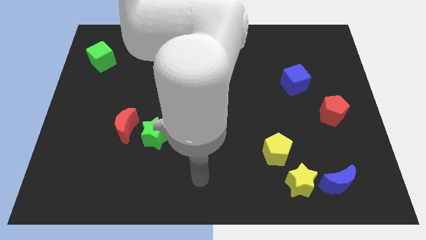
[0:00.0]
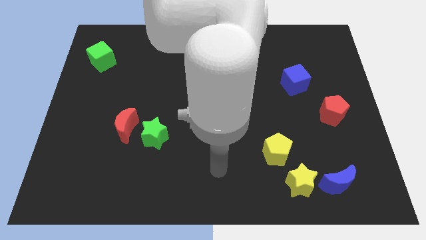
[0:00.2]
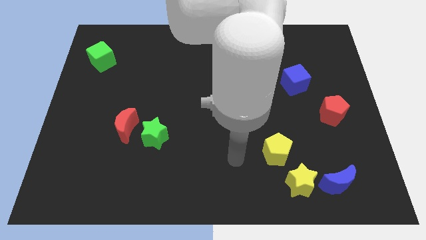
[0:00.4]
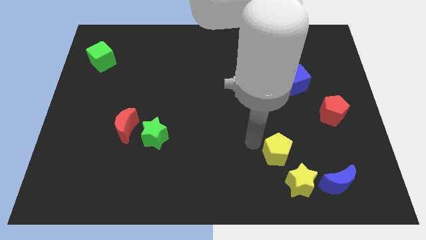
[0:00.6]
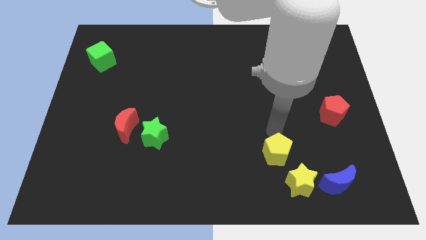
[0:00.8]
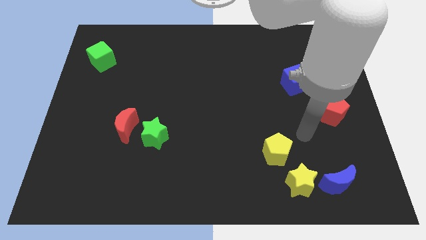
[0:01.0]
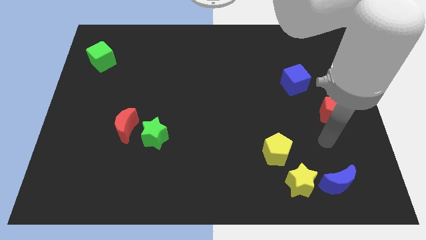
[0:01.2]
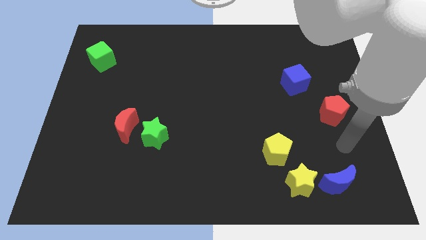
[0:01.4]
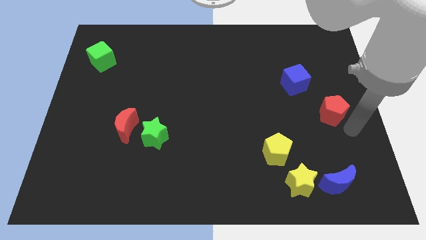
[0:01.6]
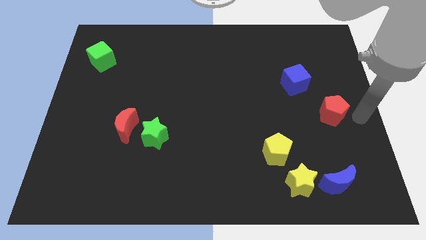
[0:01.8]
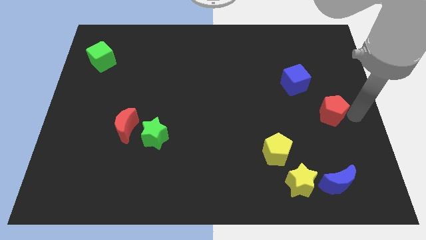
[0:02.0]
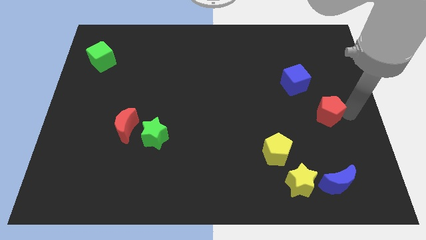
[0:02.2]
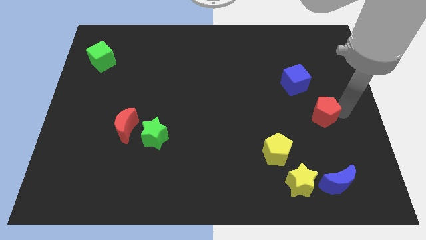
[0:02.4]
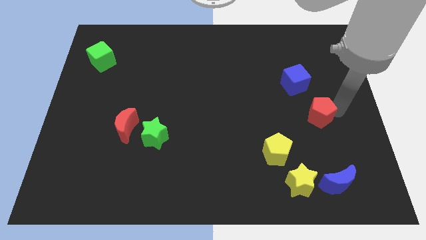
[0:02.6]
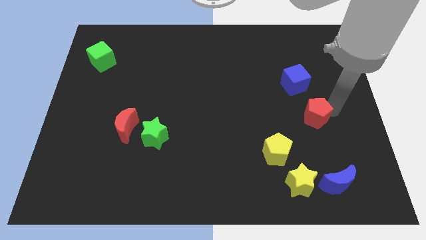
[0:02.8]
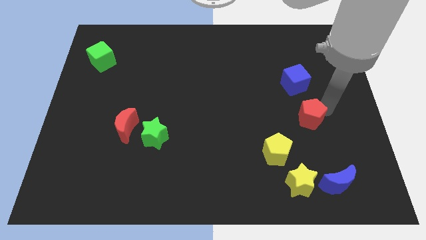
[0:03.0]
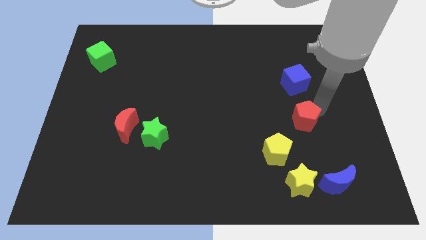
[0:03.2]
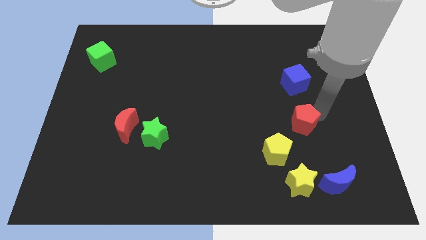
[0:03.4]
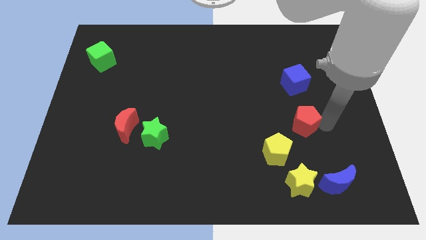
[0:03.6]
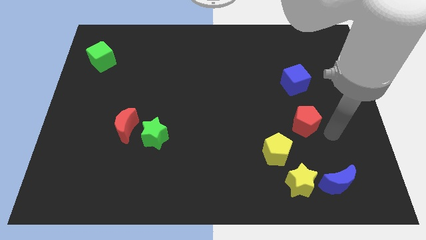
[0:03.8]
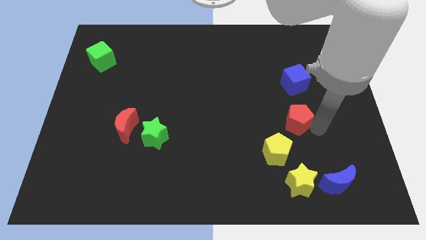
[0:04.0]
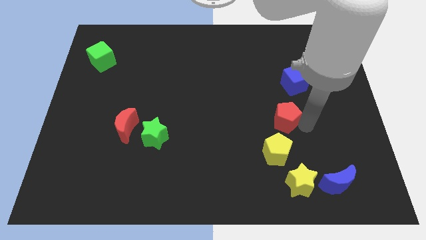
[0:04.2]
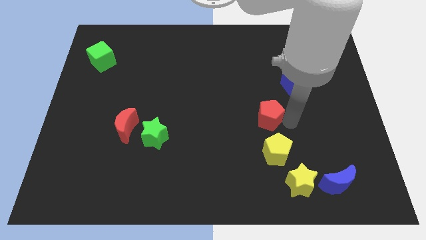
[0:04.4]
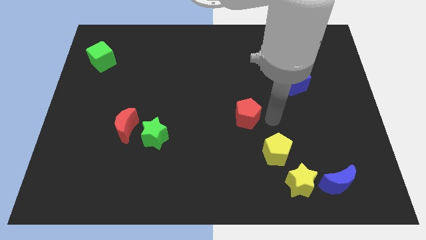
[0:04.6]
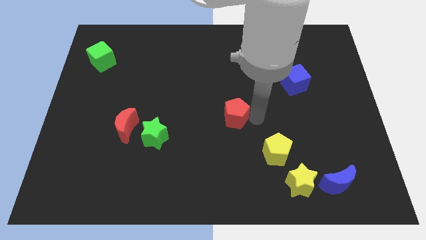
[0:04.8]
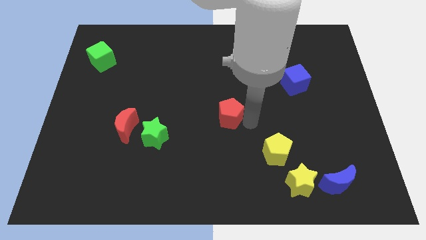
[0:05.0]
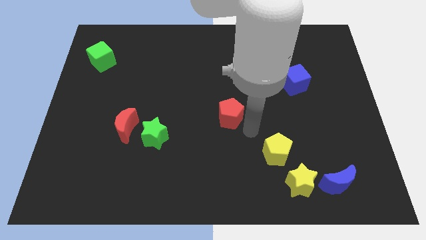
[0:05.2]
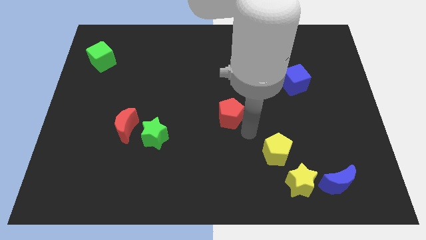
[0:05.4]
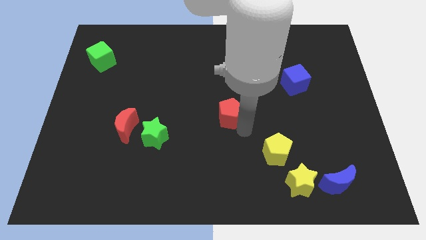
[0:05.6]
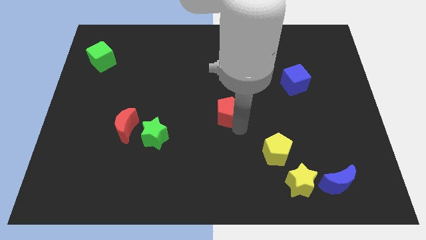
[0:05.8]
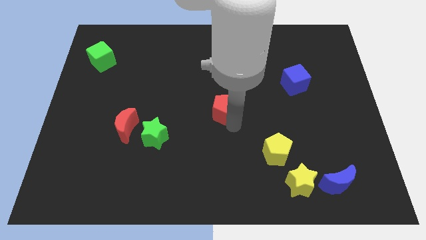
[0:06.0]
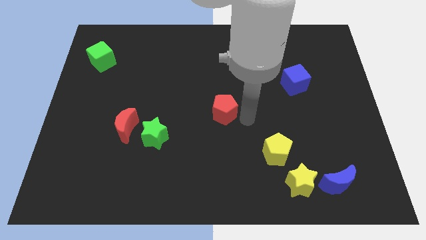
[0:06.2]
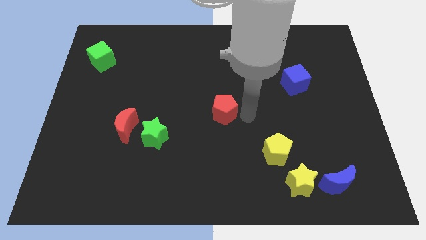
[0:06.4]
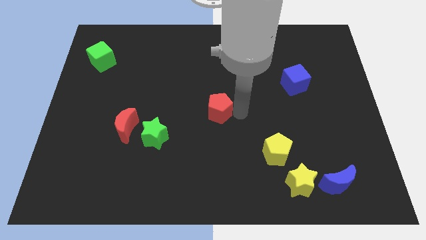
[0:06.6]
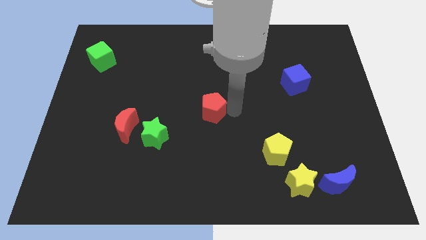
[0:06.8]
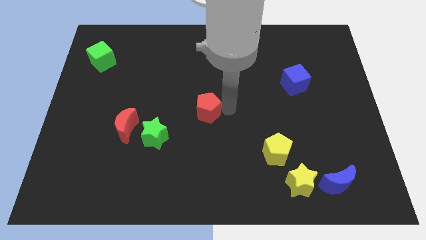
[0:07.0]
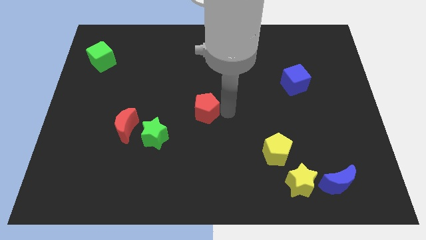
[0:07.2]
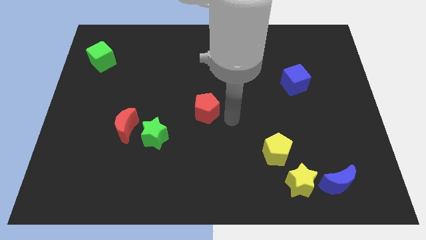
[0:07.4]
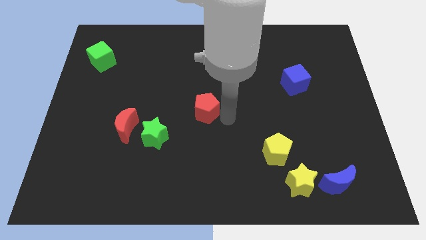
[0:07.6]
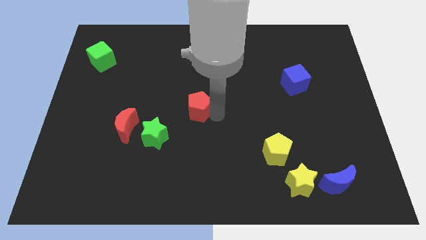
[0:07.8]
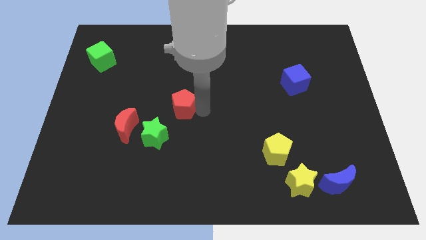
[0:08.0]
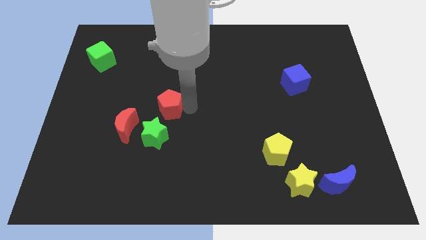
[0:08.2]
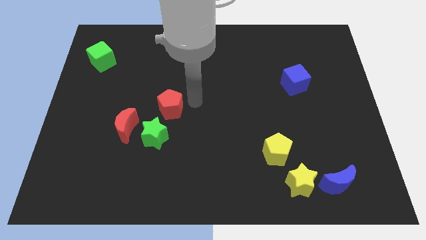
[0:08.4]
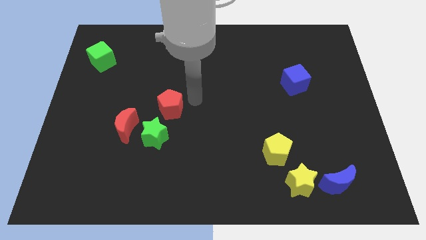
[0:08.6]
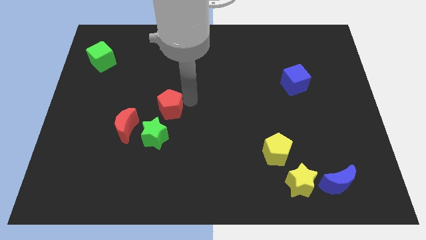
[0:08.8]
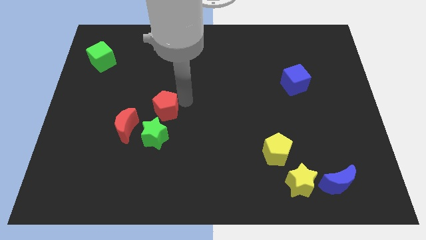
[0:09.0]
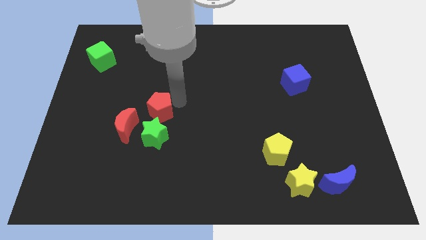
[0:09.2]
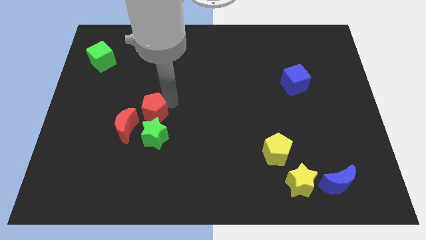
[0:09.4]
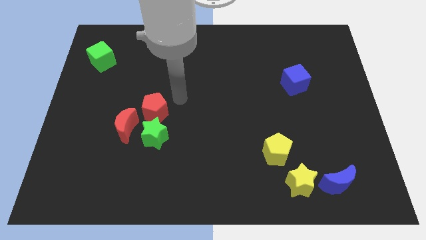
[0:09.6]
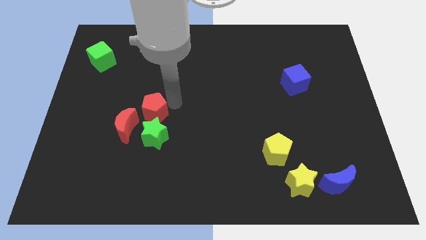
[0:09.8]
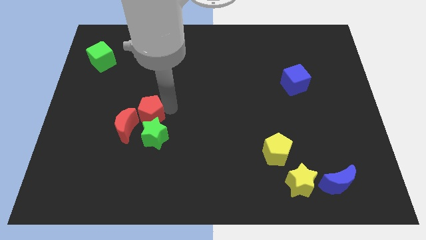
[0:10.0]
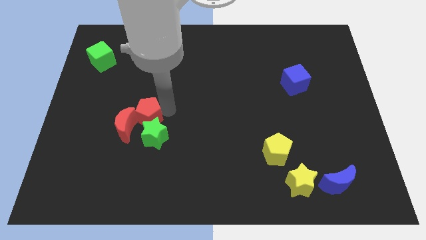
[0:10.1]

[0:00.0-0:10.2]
move the red pentagon to the red moon

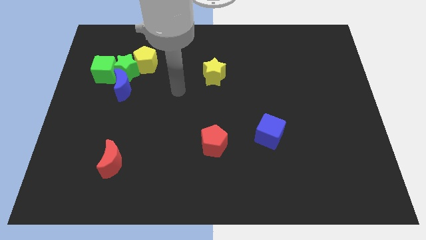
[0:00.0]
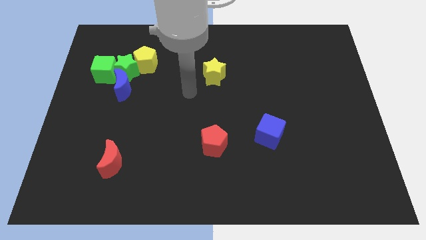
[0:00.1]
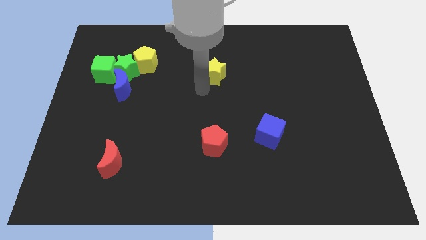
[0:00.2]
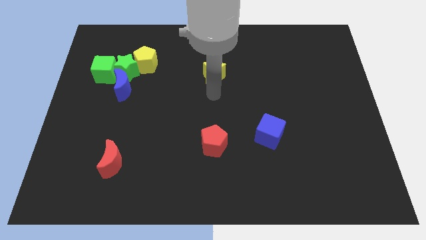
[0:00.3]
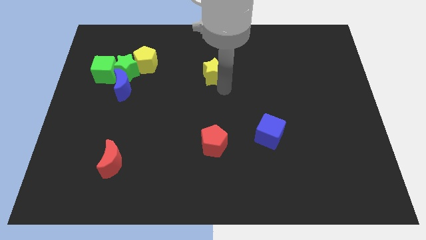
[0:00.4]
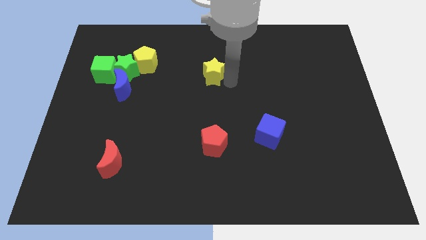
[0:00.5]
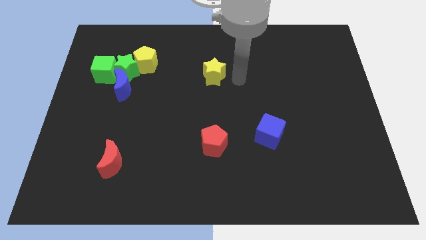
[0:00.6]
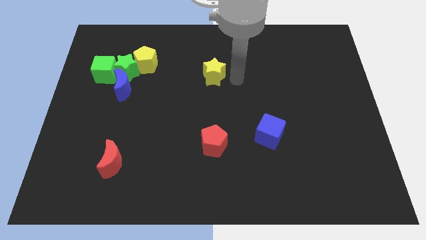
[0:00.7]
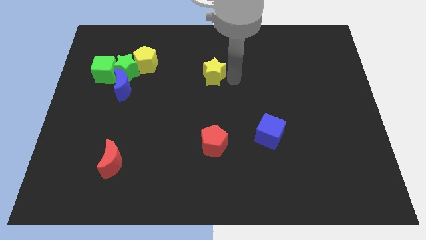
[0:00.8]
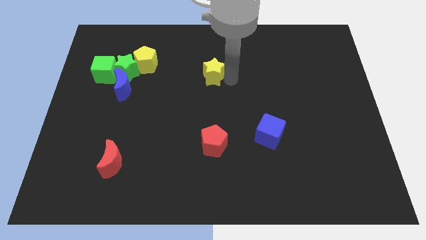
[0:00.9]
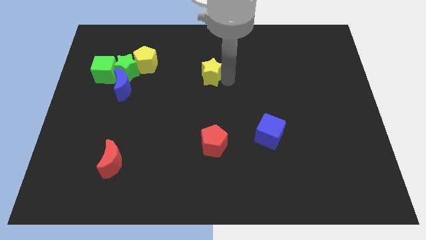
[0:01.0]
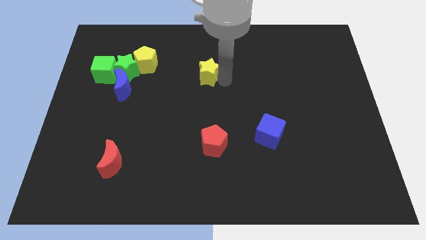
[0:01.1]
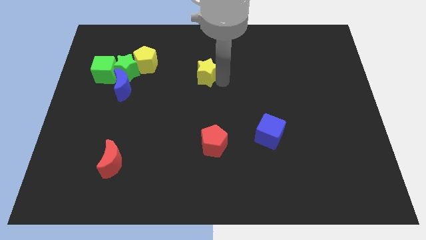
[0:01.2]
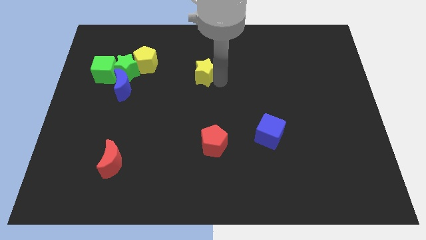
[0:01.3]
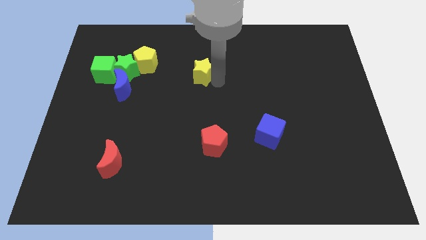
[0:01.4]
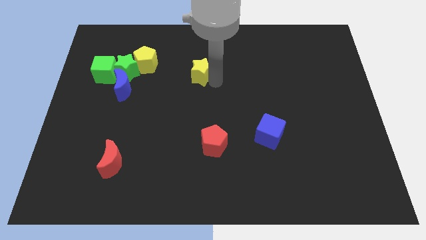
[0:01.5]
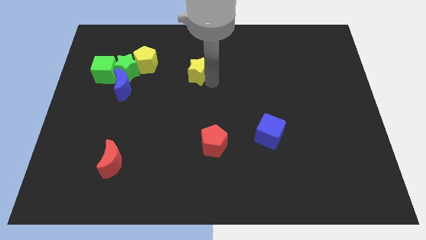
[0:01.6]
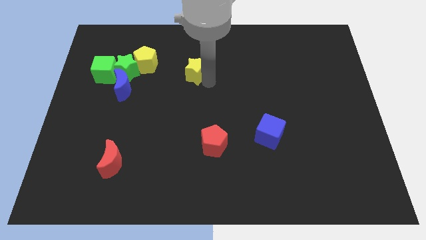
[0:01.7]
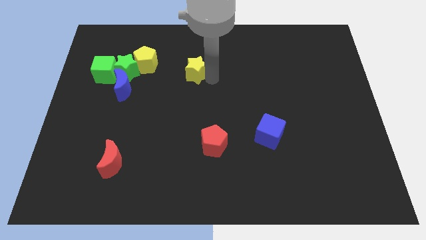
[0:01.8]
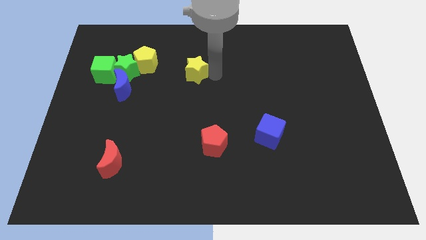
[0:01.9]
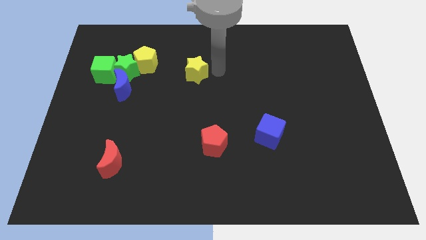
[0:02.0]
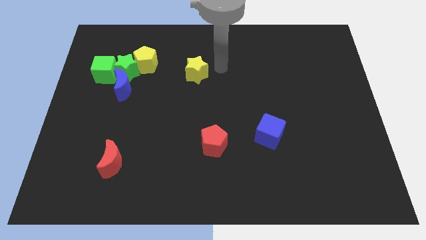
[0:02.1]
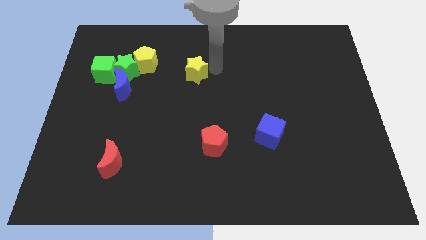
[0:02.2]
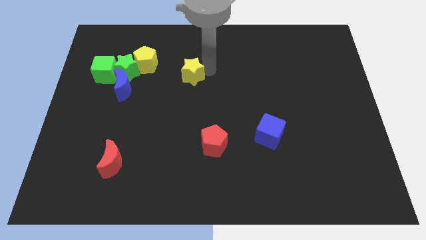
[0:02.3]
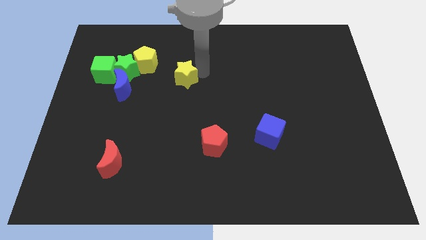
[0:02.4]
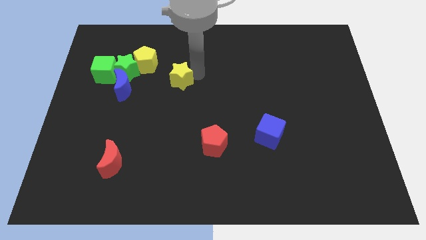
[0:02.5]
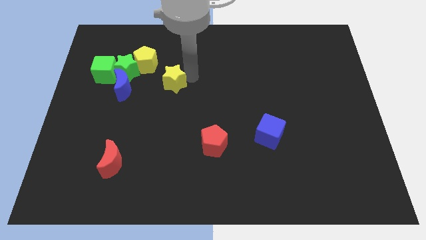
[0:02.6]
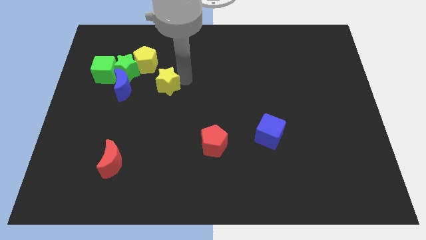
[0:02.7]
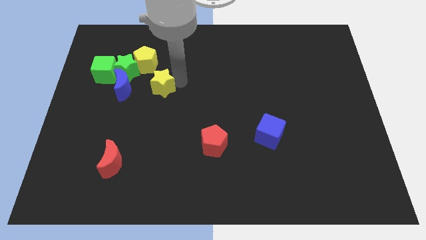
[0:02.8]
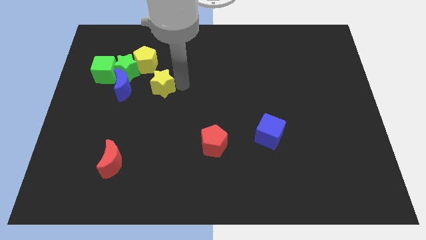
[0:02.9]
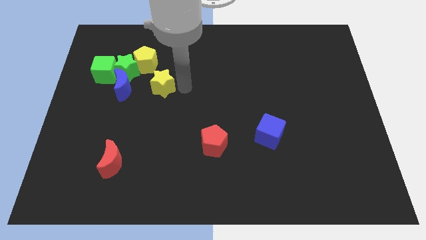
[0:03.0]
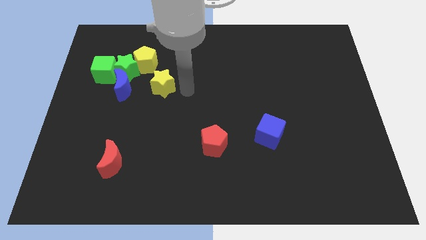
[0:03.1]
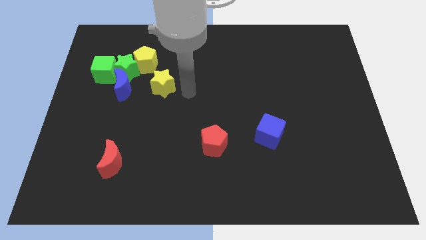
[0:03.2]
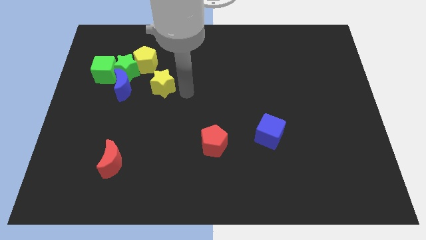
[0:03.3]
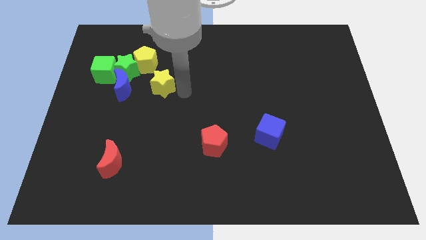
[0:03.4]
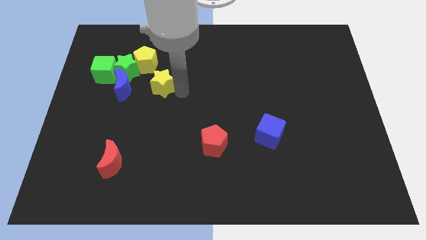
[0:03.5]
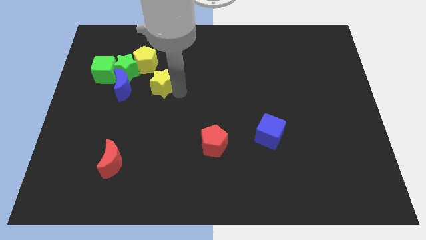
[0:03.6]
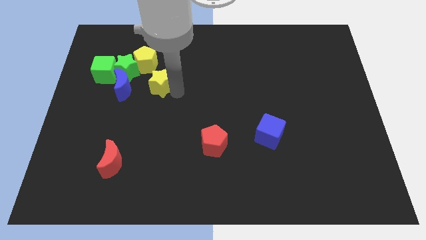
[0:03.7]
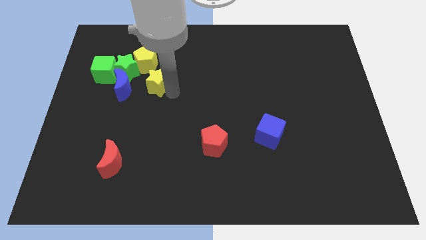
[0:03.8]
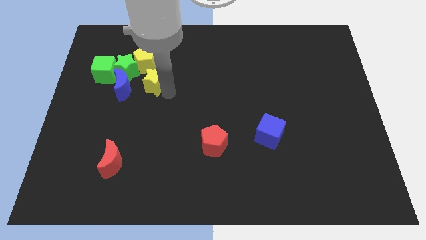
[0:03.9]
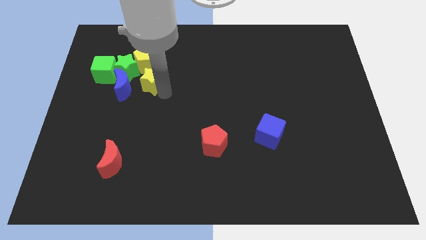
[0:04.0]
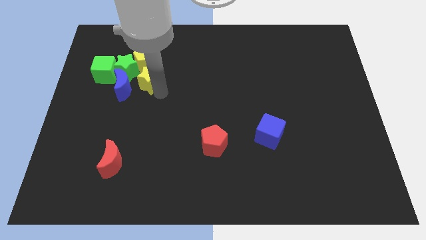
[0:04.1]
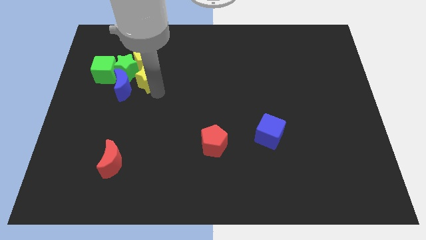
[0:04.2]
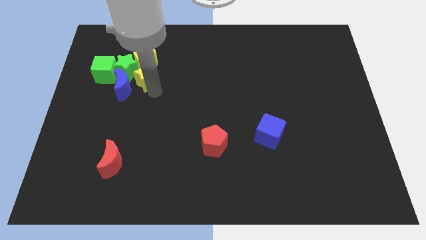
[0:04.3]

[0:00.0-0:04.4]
put the yellow star next to the green star
